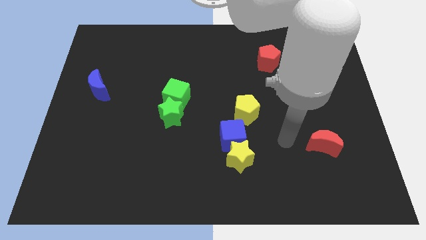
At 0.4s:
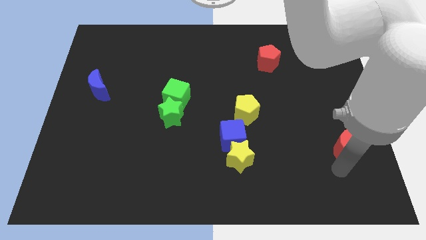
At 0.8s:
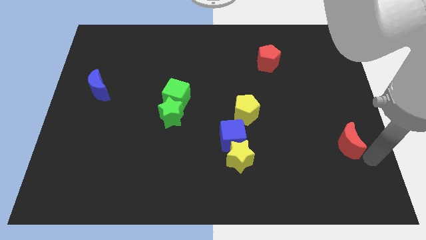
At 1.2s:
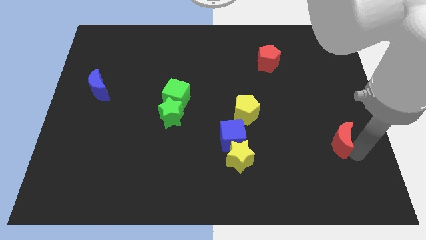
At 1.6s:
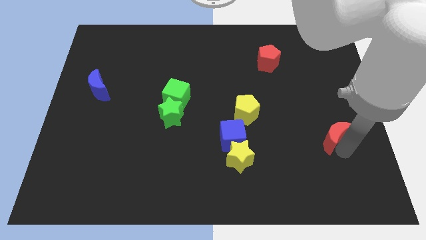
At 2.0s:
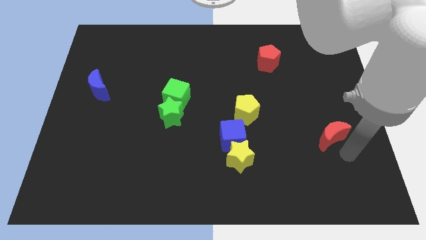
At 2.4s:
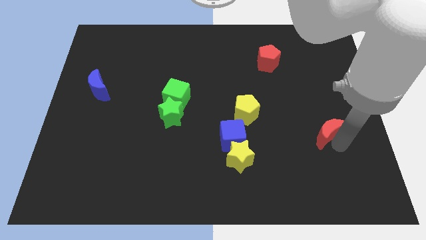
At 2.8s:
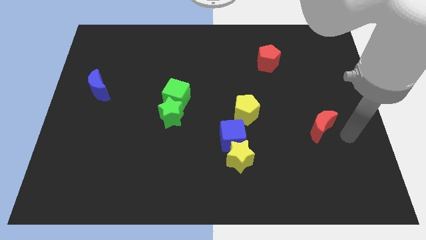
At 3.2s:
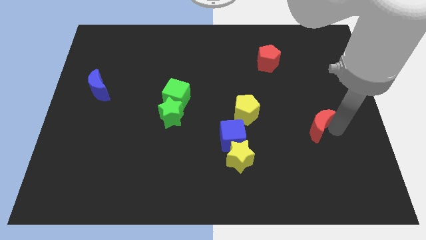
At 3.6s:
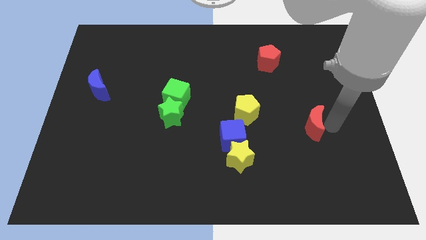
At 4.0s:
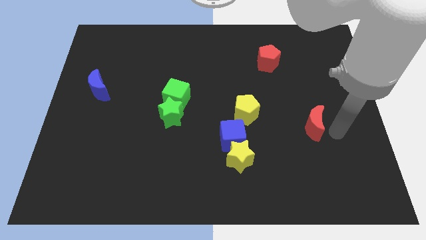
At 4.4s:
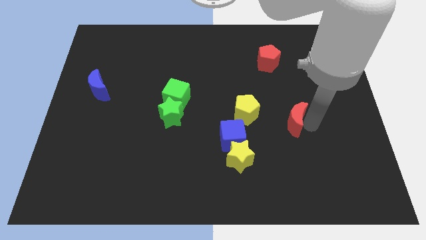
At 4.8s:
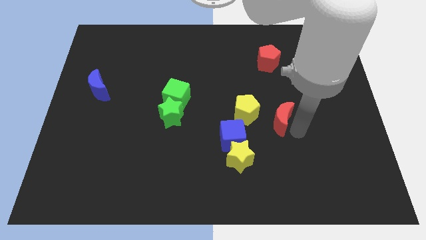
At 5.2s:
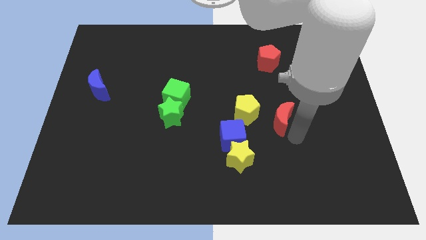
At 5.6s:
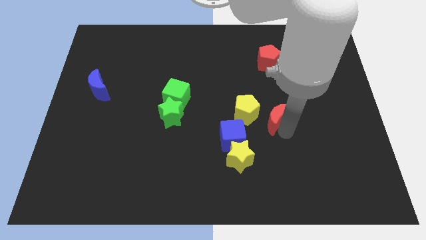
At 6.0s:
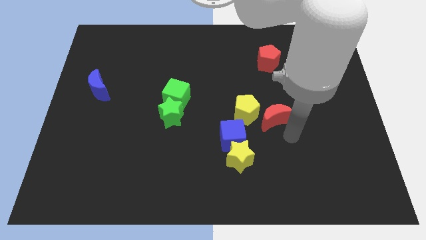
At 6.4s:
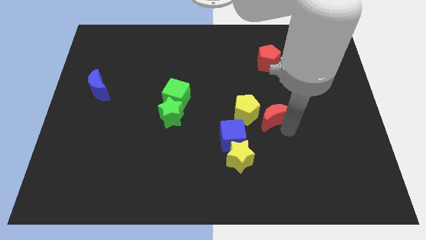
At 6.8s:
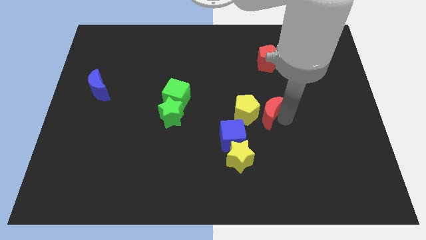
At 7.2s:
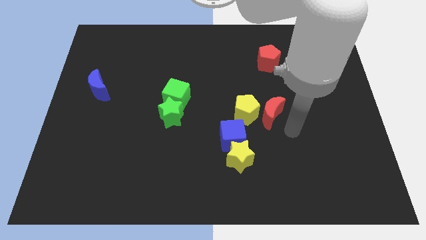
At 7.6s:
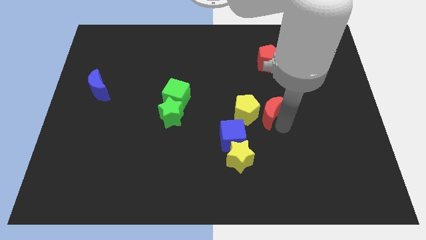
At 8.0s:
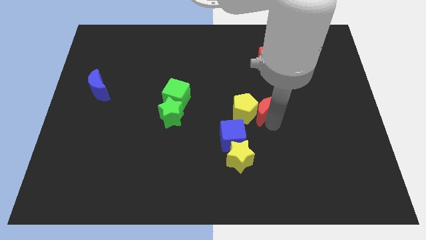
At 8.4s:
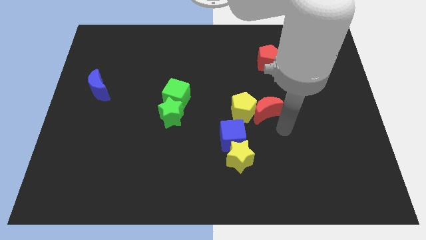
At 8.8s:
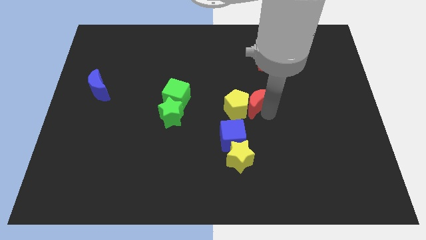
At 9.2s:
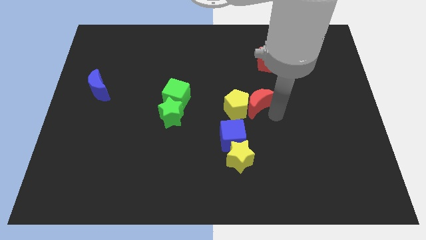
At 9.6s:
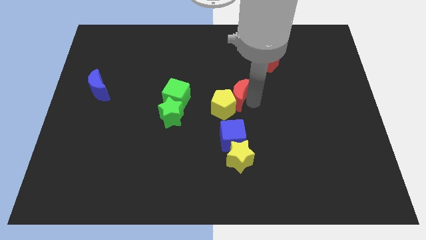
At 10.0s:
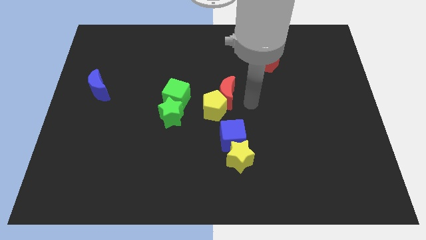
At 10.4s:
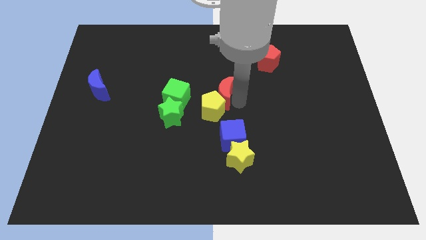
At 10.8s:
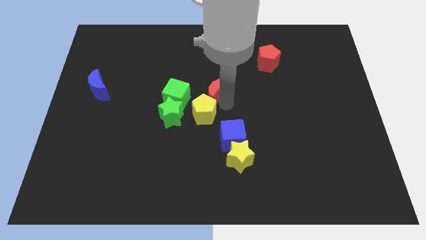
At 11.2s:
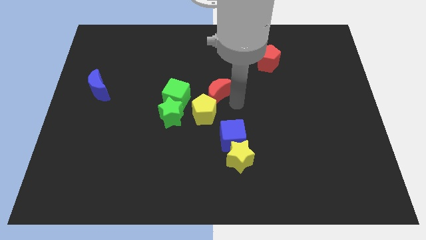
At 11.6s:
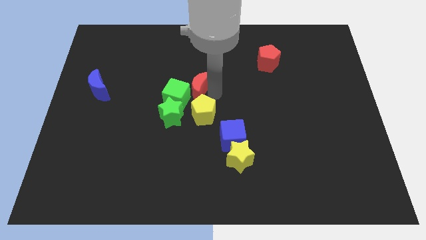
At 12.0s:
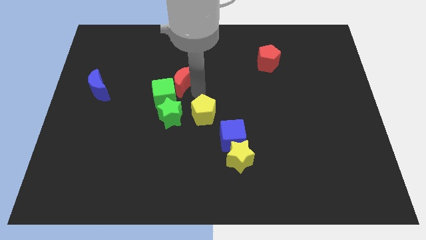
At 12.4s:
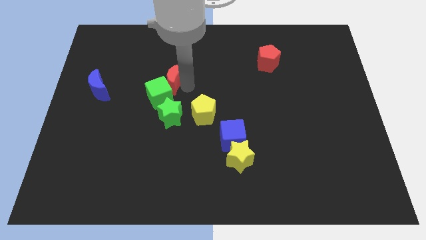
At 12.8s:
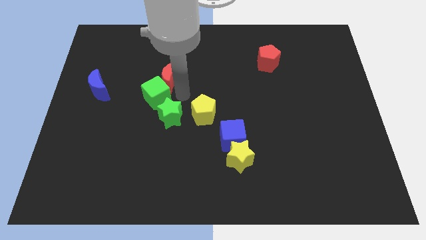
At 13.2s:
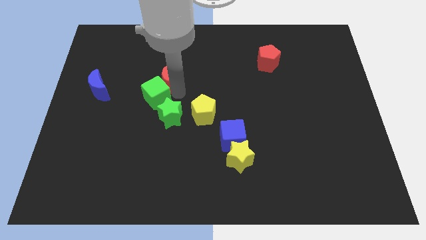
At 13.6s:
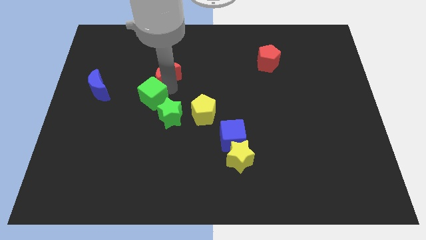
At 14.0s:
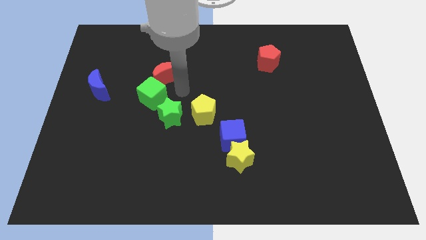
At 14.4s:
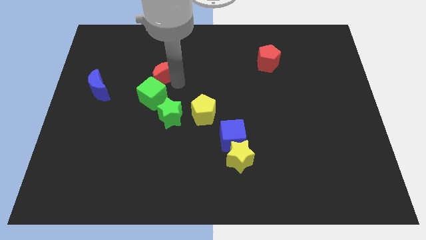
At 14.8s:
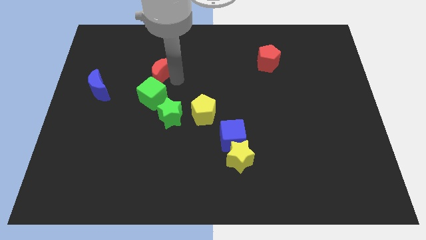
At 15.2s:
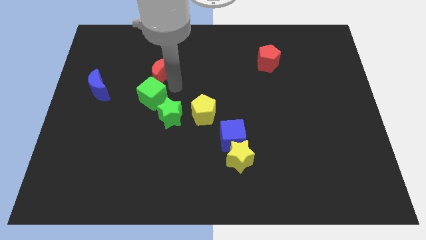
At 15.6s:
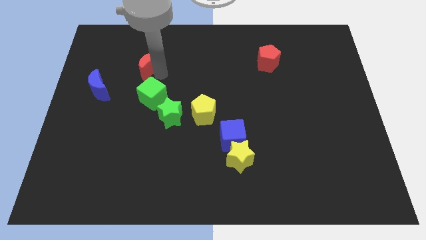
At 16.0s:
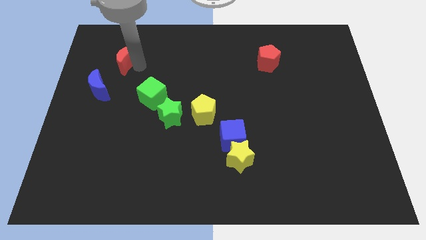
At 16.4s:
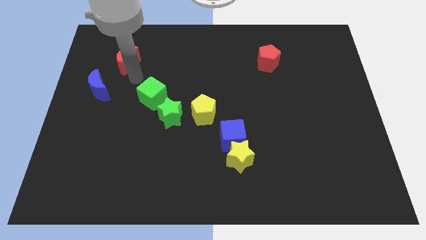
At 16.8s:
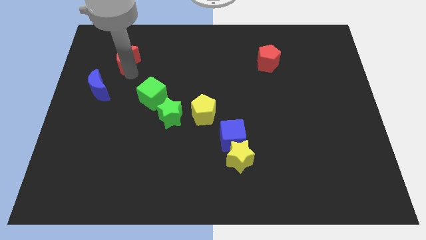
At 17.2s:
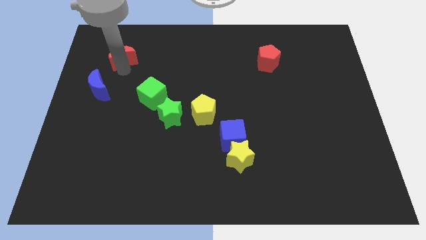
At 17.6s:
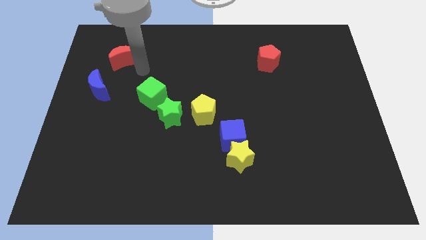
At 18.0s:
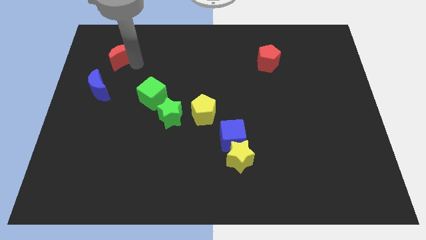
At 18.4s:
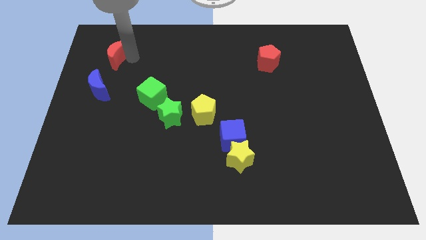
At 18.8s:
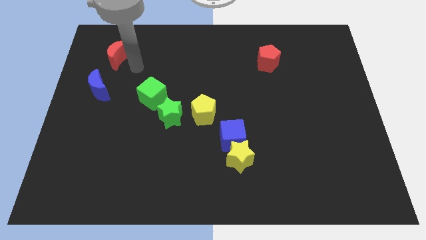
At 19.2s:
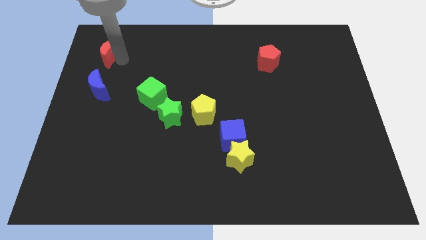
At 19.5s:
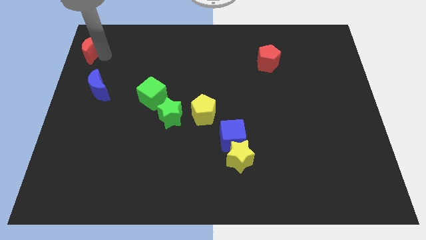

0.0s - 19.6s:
push the red moon to the top left

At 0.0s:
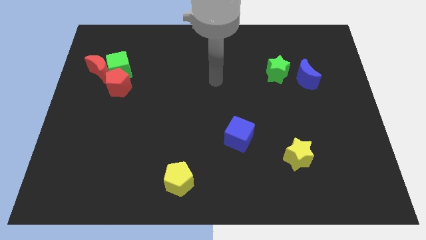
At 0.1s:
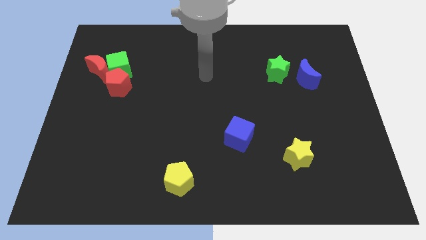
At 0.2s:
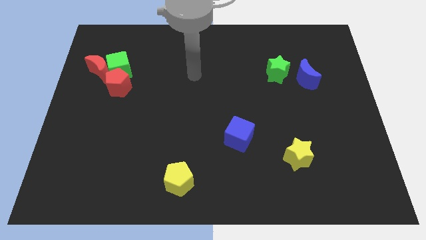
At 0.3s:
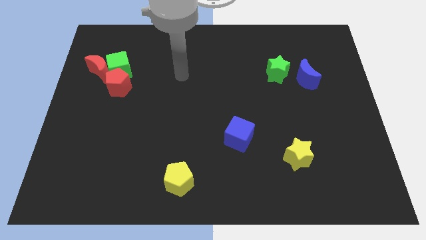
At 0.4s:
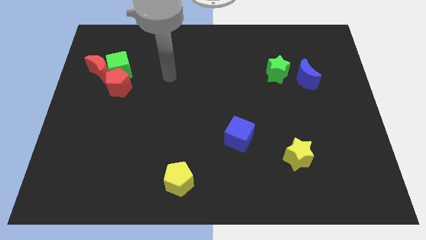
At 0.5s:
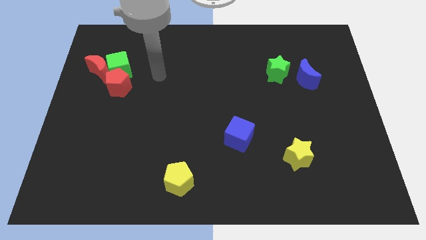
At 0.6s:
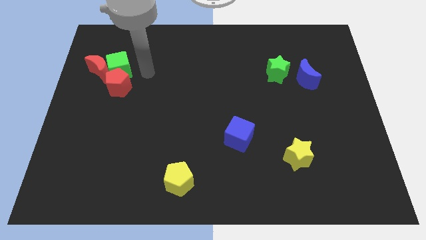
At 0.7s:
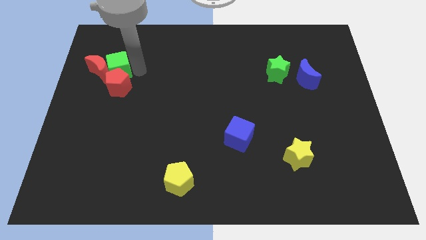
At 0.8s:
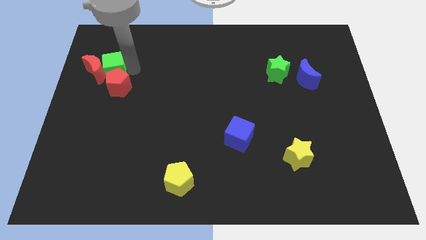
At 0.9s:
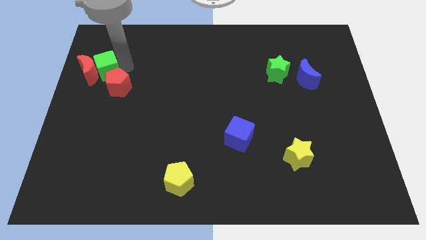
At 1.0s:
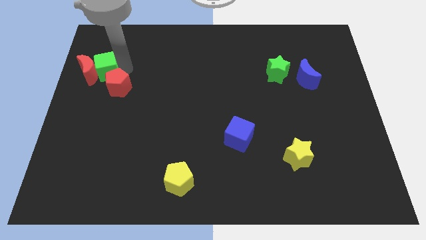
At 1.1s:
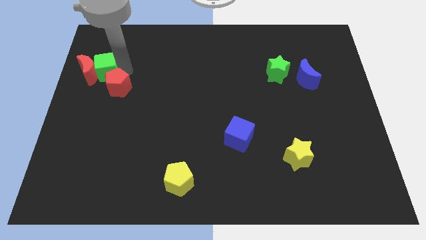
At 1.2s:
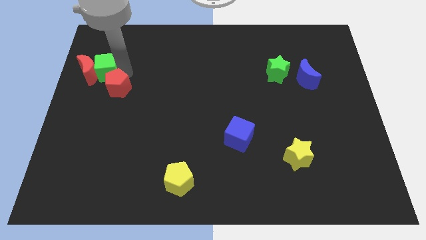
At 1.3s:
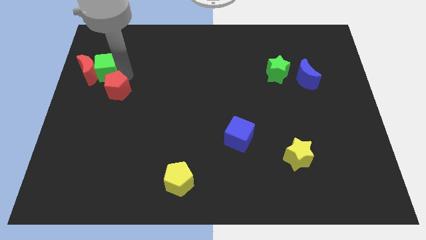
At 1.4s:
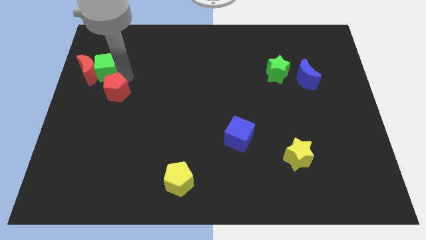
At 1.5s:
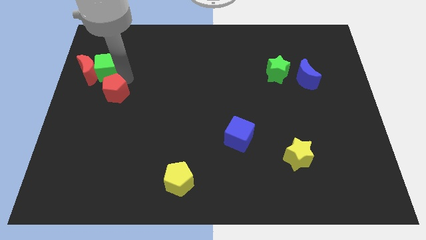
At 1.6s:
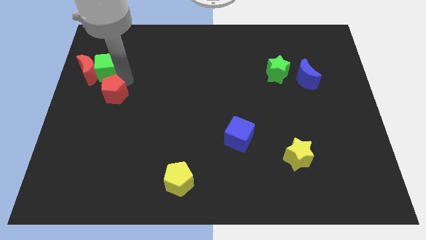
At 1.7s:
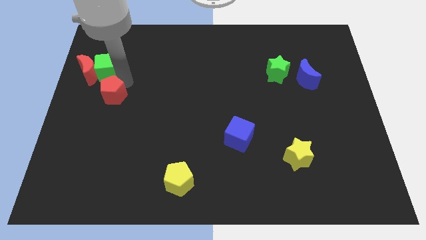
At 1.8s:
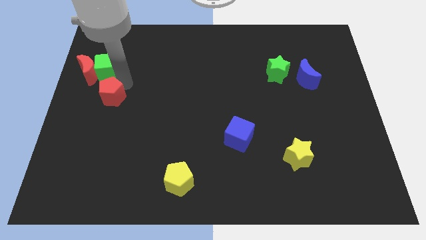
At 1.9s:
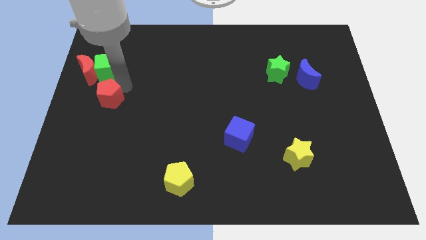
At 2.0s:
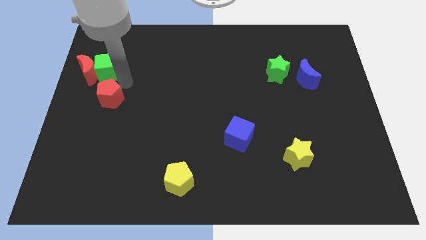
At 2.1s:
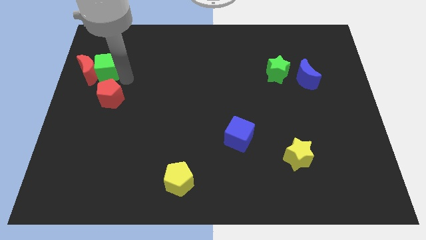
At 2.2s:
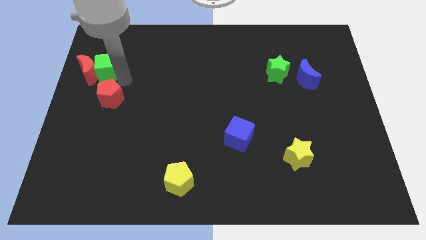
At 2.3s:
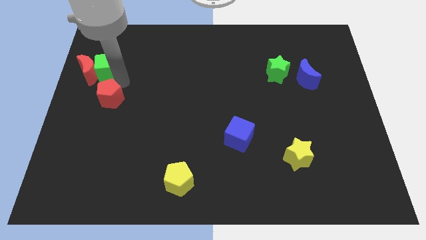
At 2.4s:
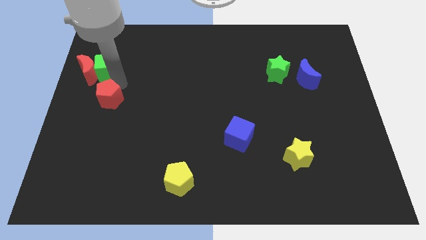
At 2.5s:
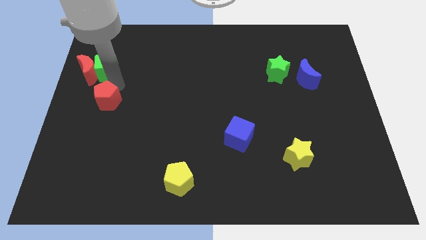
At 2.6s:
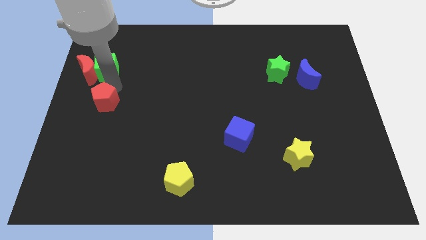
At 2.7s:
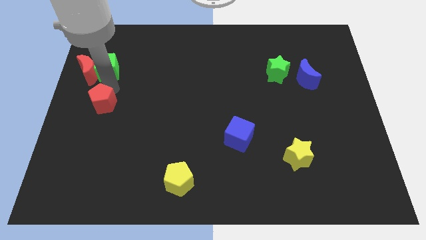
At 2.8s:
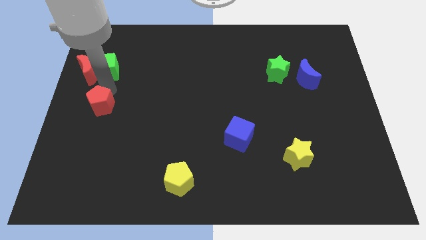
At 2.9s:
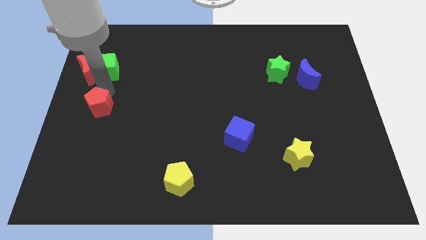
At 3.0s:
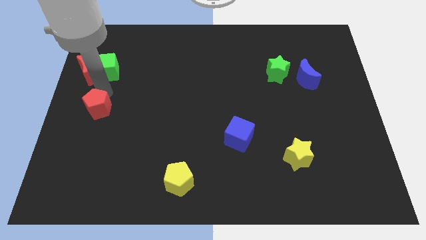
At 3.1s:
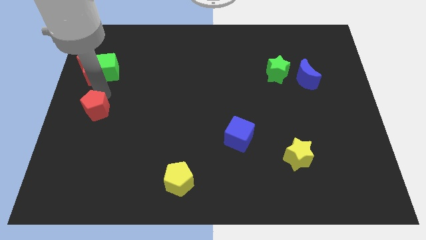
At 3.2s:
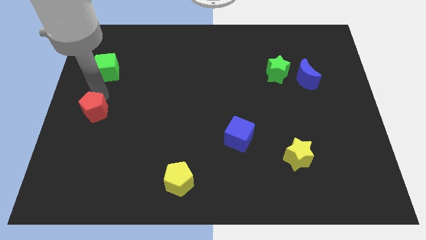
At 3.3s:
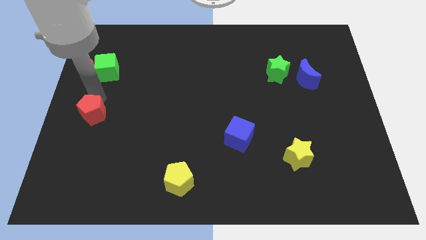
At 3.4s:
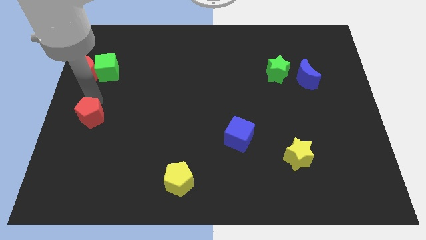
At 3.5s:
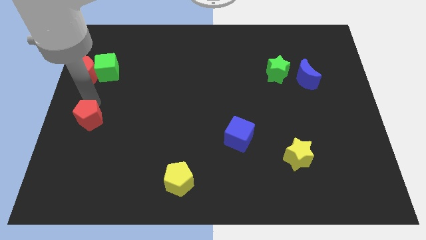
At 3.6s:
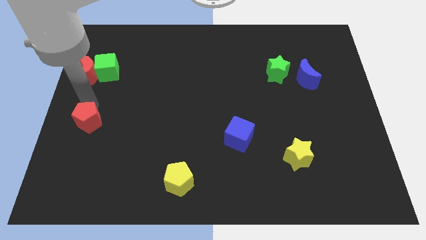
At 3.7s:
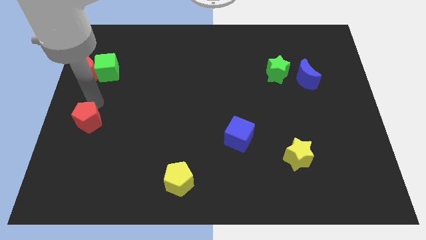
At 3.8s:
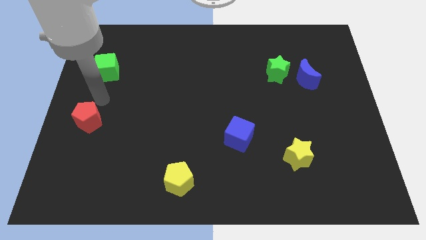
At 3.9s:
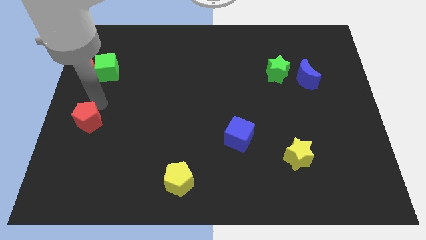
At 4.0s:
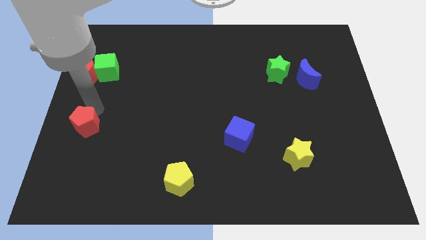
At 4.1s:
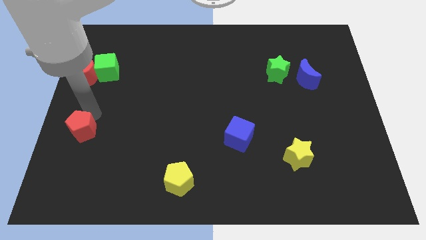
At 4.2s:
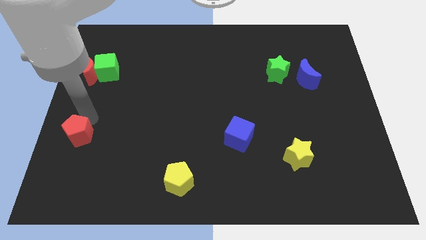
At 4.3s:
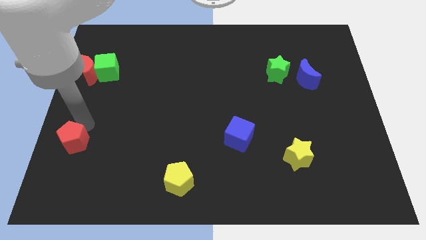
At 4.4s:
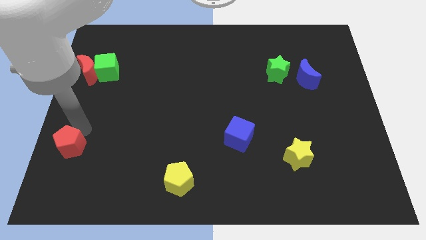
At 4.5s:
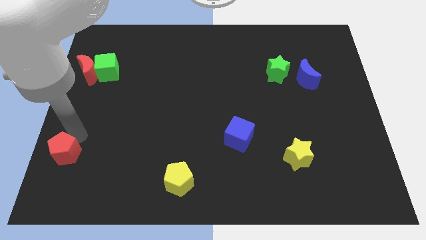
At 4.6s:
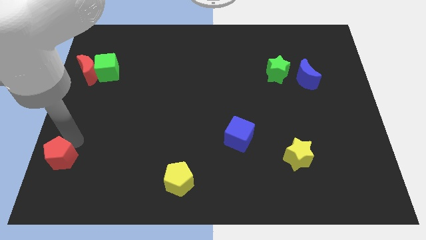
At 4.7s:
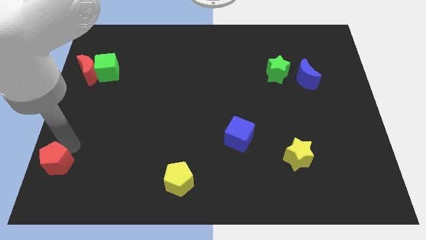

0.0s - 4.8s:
put the red pentagon to the lower left corner
